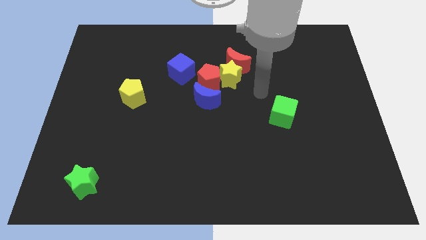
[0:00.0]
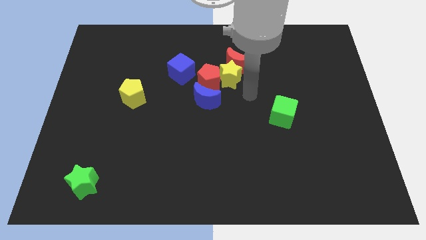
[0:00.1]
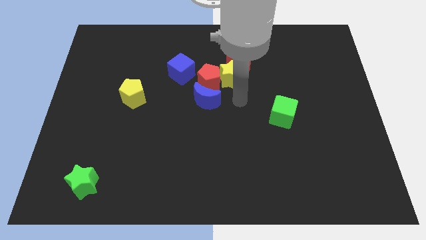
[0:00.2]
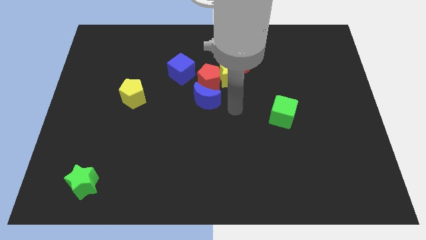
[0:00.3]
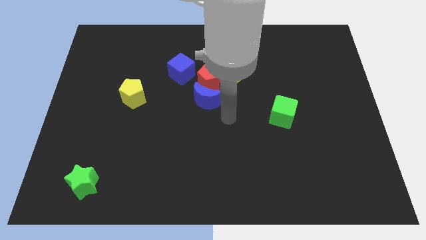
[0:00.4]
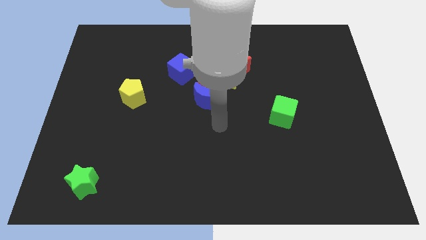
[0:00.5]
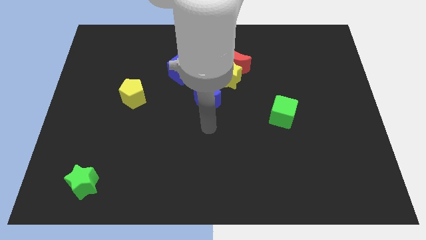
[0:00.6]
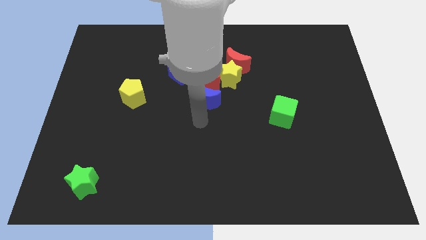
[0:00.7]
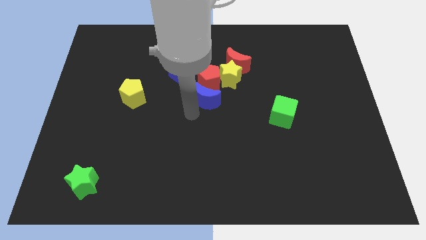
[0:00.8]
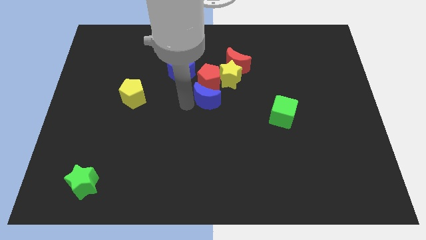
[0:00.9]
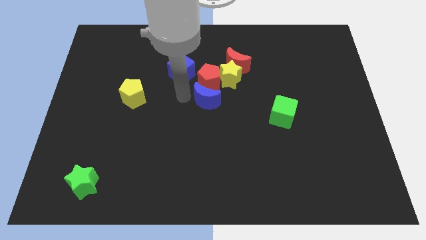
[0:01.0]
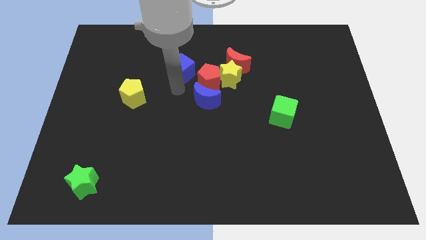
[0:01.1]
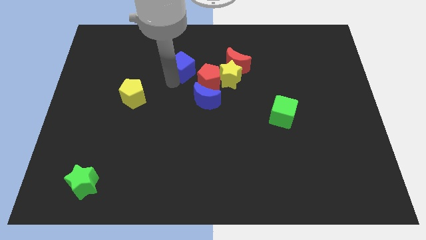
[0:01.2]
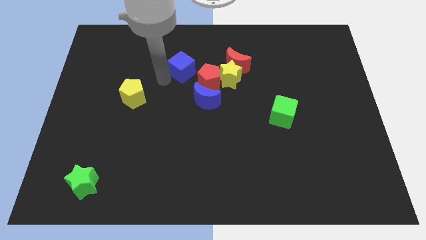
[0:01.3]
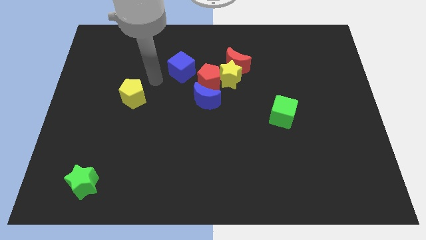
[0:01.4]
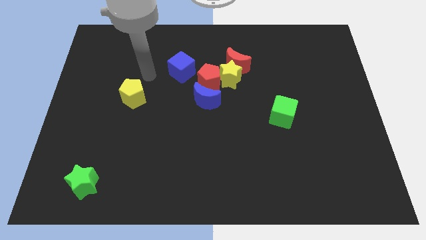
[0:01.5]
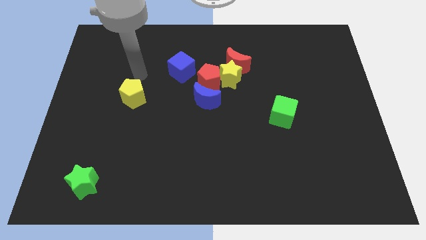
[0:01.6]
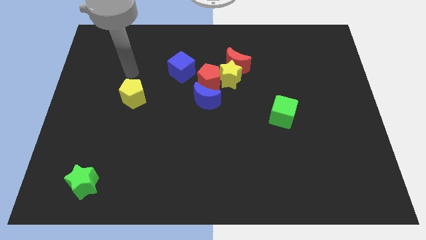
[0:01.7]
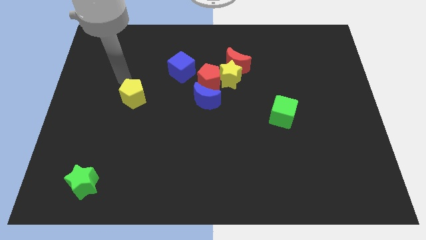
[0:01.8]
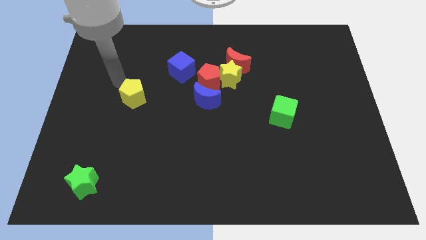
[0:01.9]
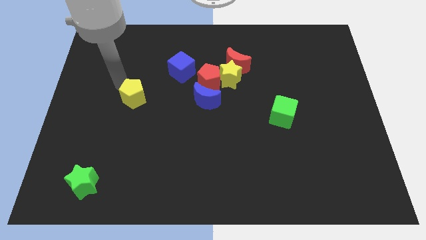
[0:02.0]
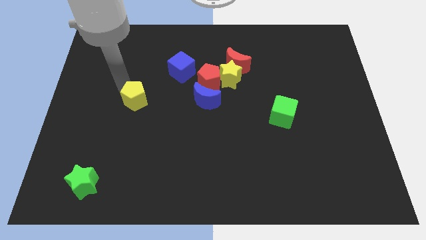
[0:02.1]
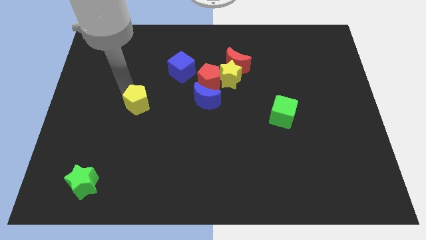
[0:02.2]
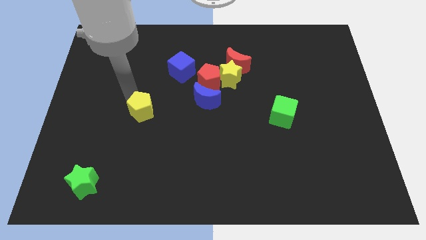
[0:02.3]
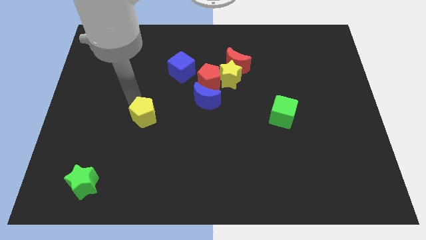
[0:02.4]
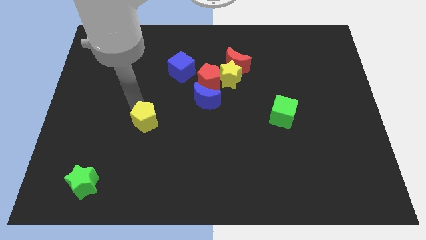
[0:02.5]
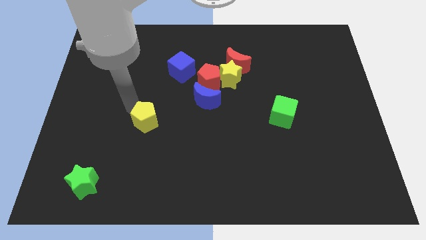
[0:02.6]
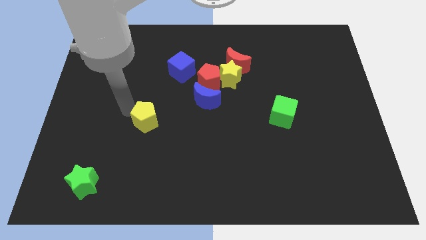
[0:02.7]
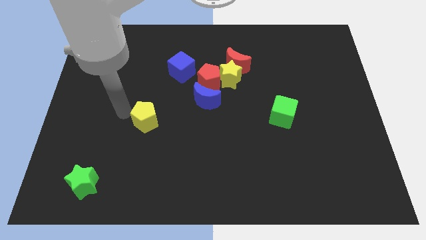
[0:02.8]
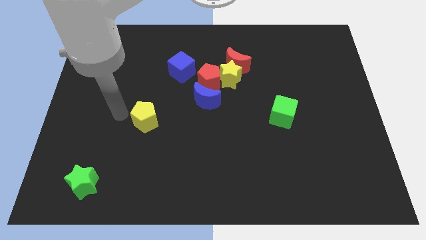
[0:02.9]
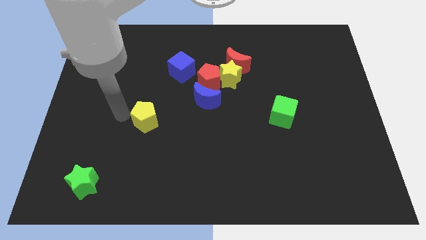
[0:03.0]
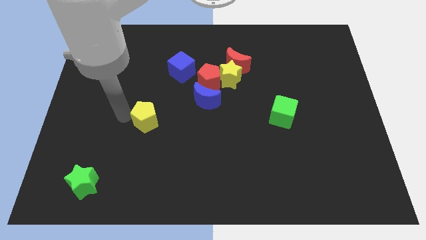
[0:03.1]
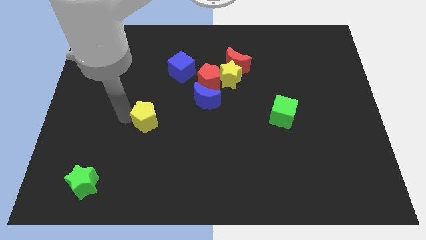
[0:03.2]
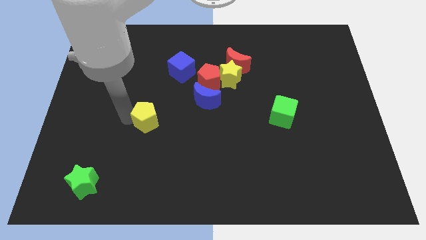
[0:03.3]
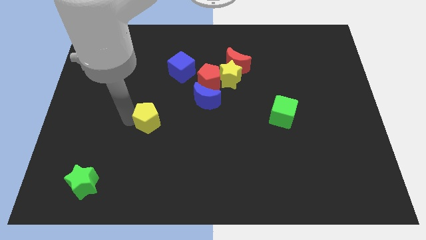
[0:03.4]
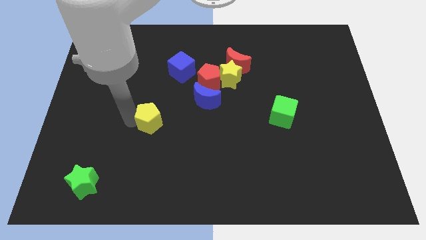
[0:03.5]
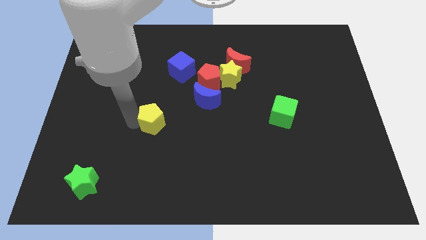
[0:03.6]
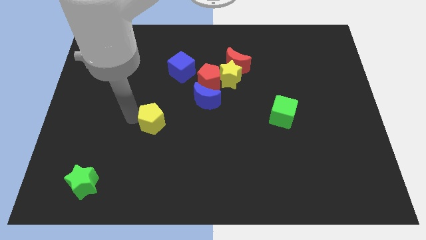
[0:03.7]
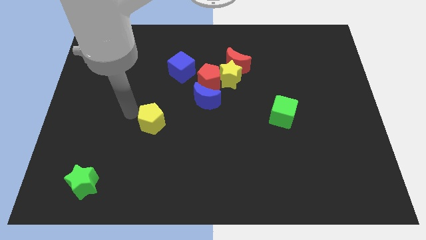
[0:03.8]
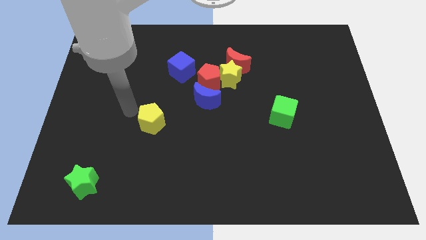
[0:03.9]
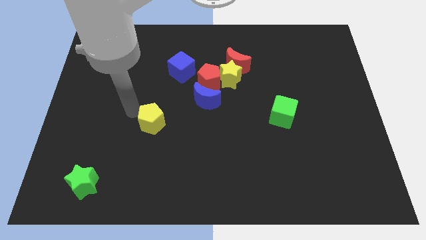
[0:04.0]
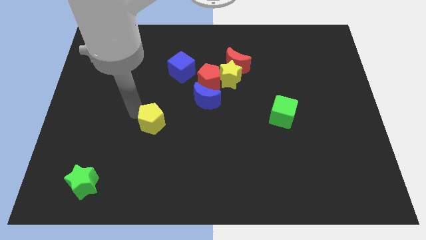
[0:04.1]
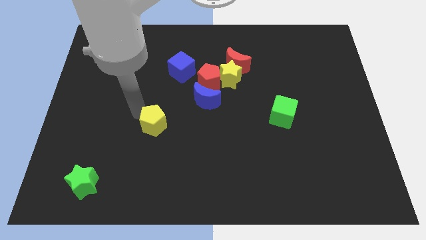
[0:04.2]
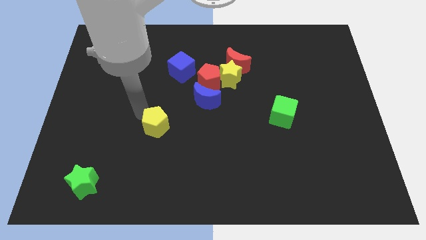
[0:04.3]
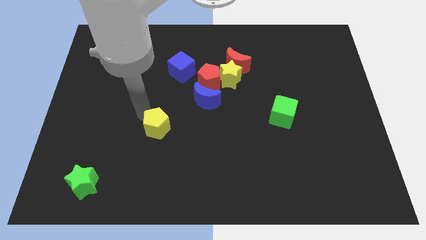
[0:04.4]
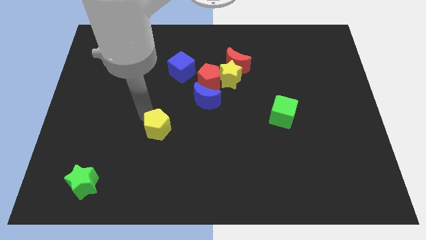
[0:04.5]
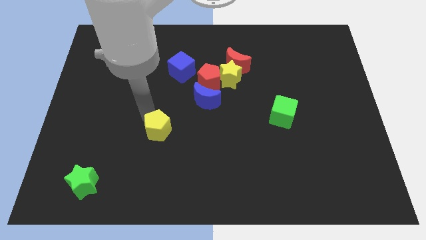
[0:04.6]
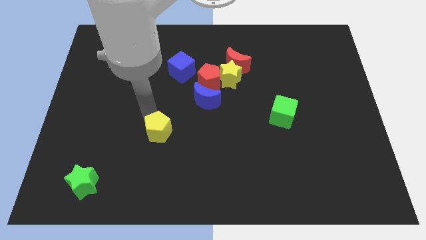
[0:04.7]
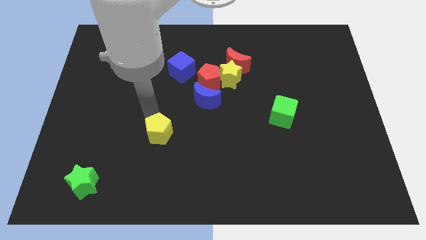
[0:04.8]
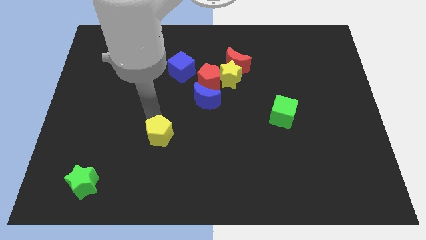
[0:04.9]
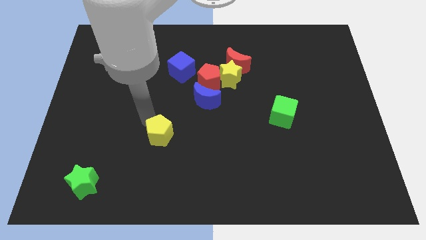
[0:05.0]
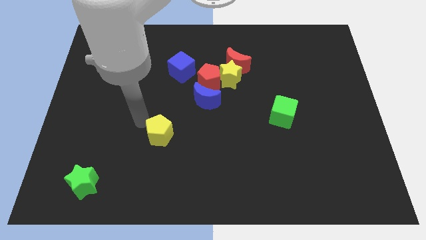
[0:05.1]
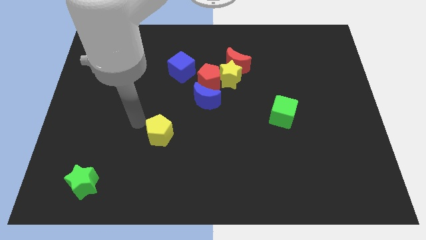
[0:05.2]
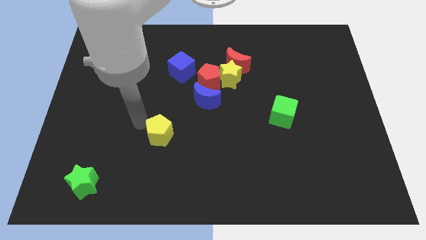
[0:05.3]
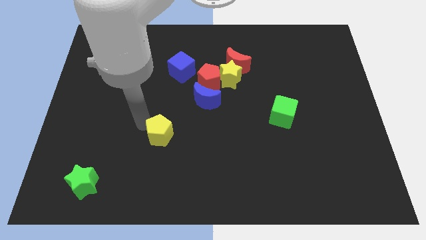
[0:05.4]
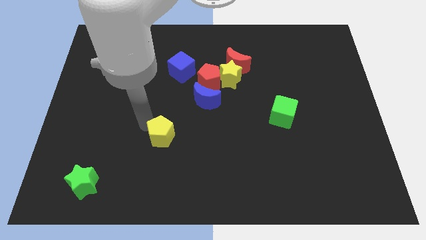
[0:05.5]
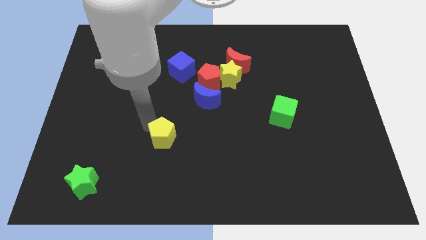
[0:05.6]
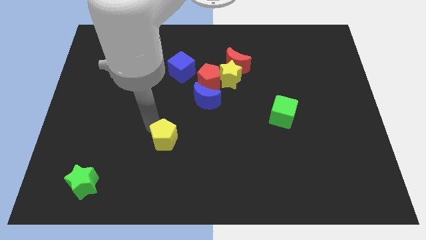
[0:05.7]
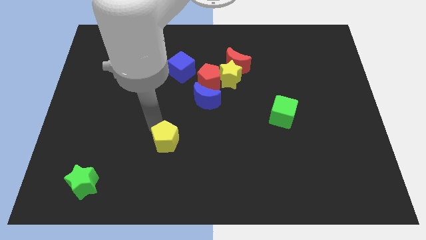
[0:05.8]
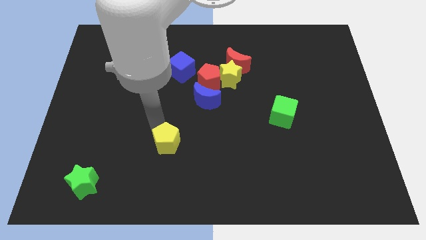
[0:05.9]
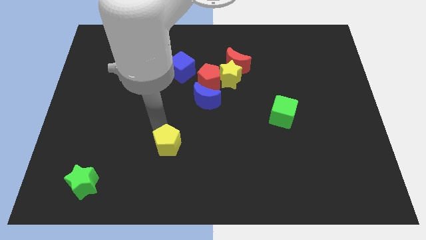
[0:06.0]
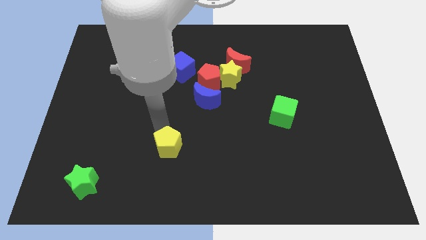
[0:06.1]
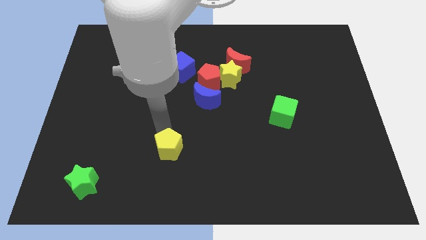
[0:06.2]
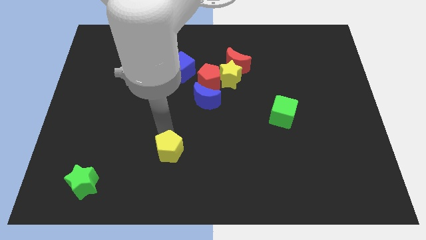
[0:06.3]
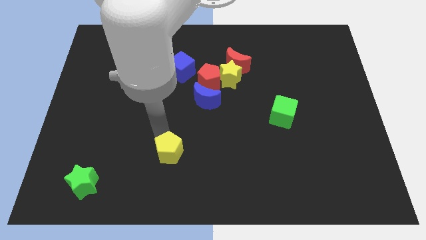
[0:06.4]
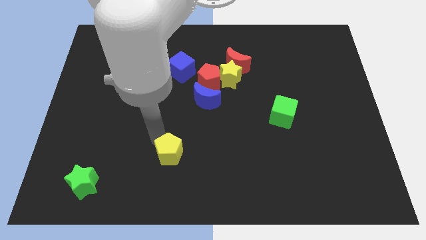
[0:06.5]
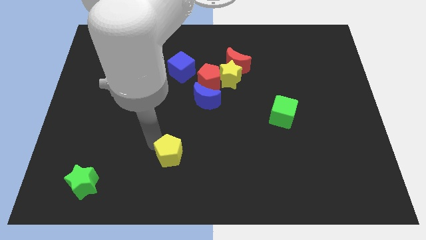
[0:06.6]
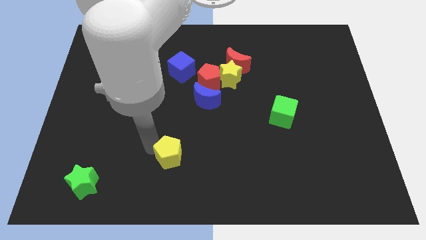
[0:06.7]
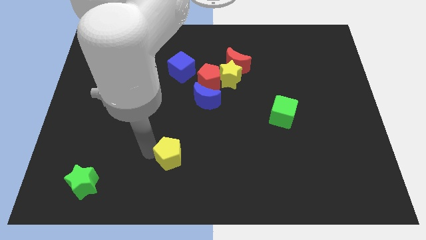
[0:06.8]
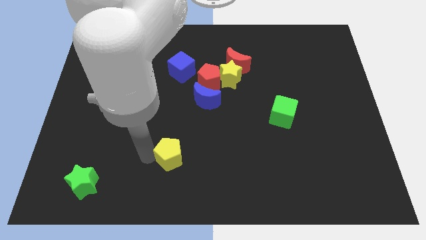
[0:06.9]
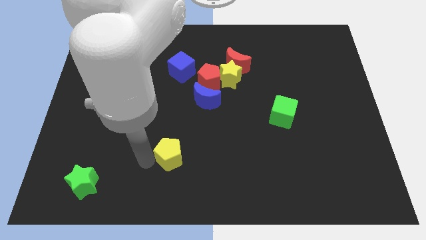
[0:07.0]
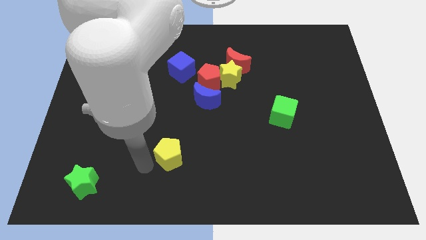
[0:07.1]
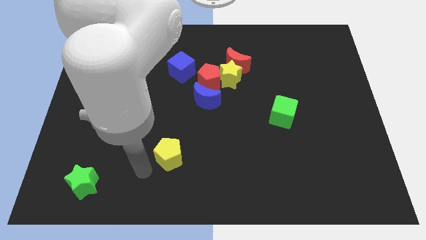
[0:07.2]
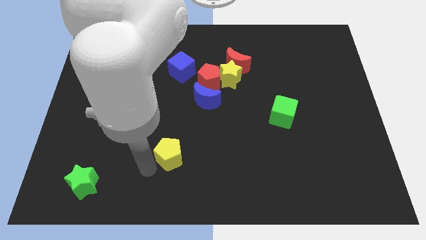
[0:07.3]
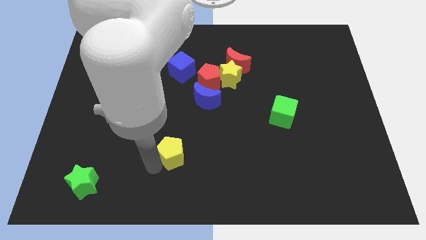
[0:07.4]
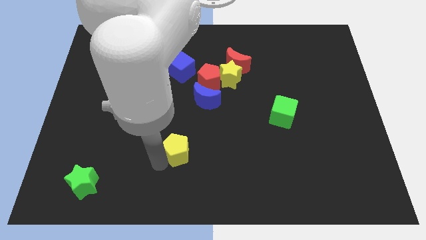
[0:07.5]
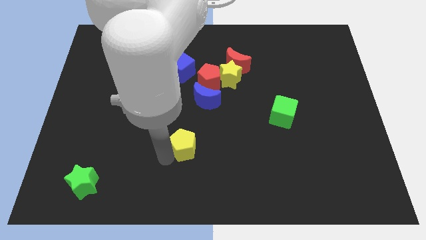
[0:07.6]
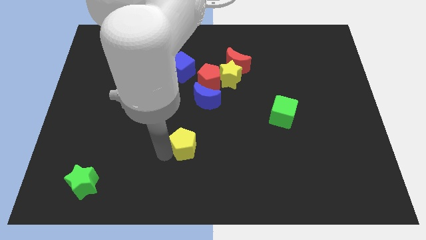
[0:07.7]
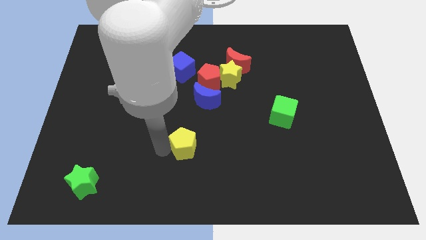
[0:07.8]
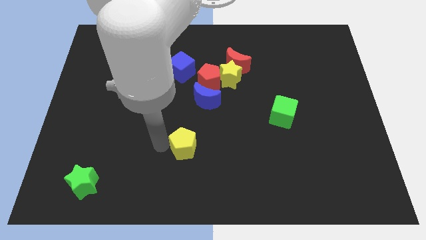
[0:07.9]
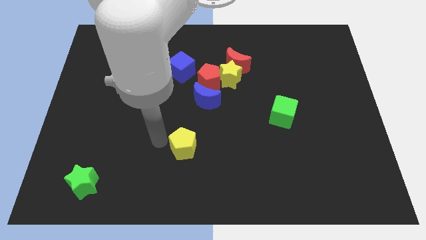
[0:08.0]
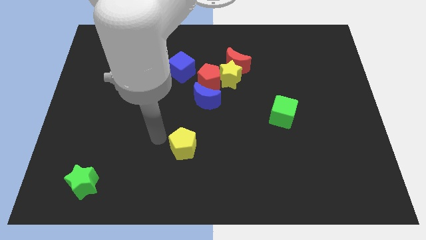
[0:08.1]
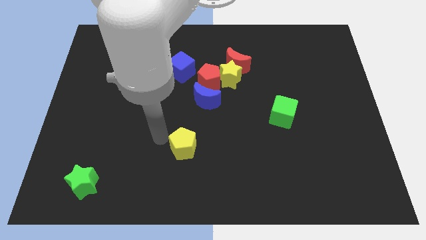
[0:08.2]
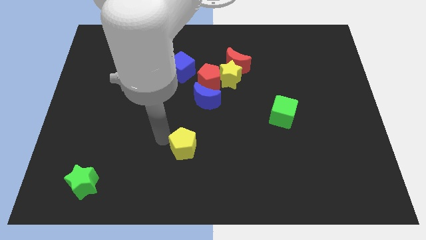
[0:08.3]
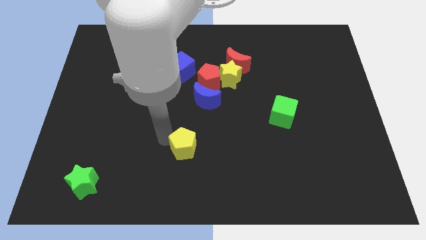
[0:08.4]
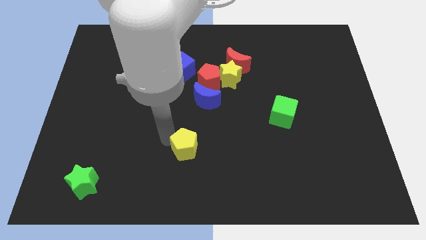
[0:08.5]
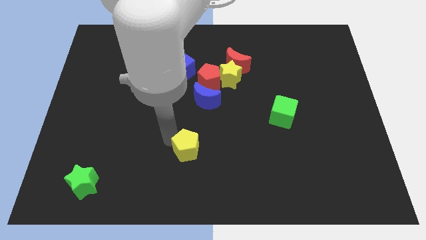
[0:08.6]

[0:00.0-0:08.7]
slide the yellow pentagon downwards and right
